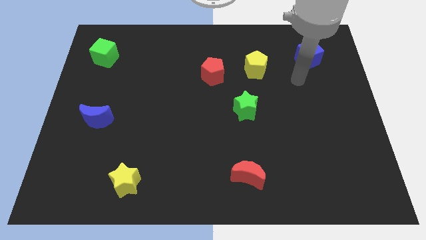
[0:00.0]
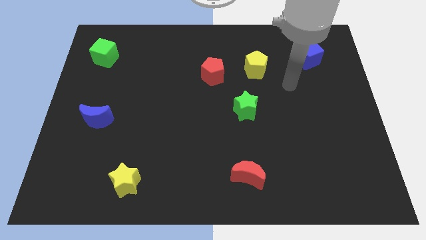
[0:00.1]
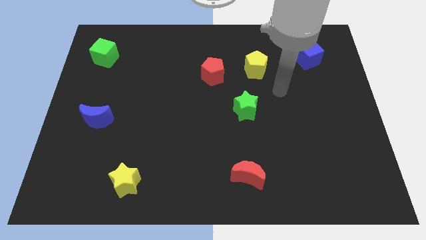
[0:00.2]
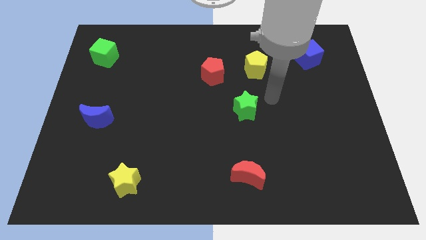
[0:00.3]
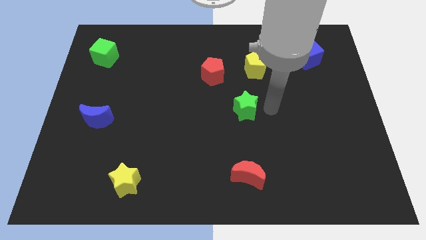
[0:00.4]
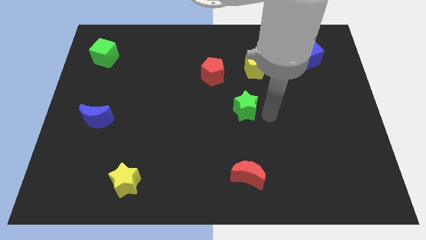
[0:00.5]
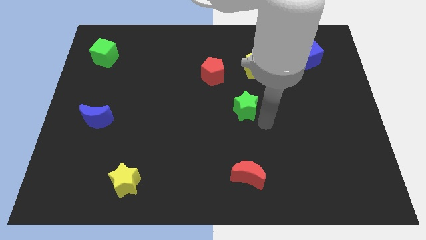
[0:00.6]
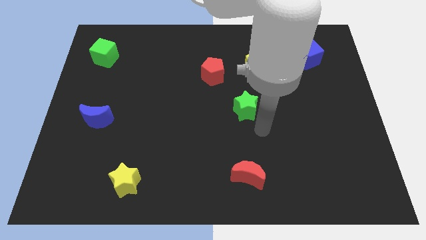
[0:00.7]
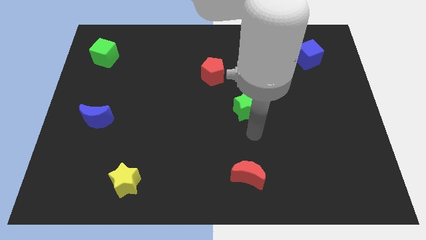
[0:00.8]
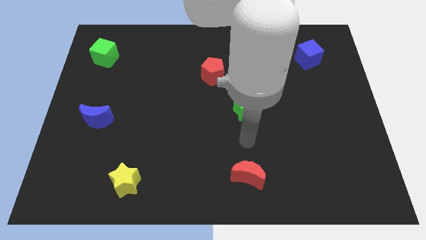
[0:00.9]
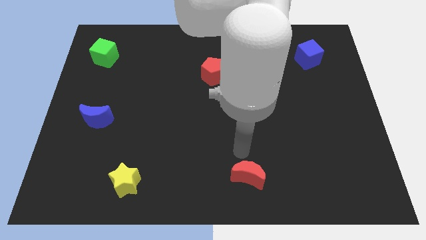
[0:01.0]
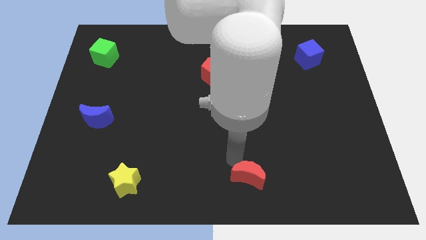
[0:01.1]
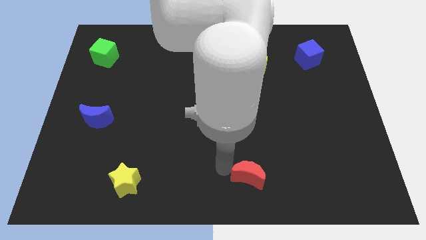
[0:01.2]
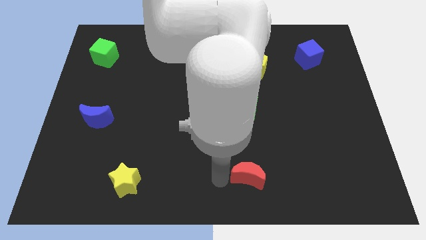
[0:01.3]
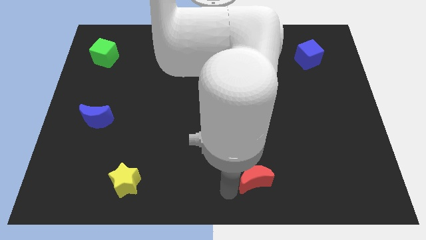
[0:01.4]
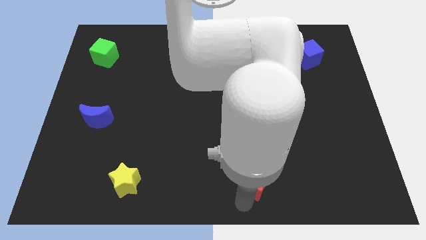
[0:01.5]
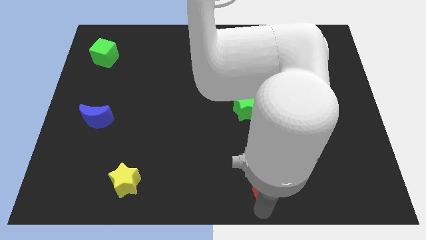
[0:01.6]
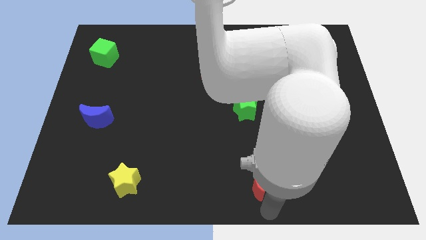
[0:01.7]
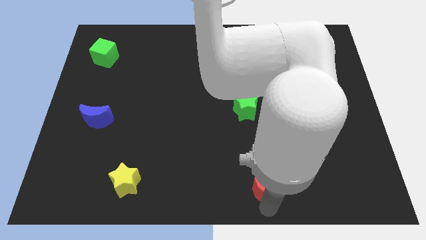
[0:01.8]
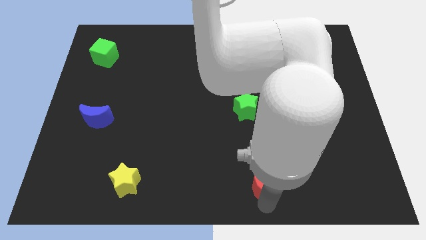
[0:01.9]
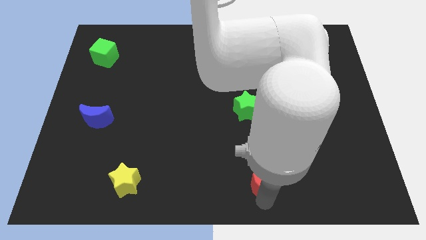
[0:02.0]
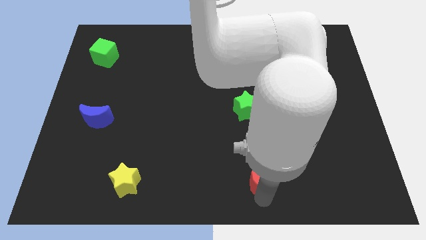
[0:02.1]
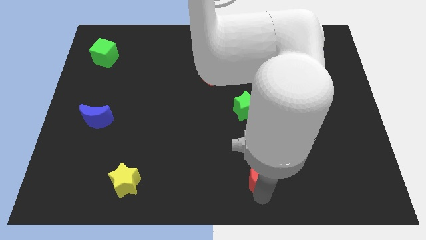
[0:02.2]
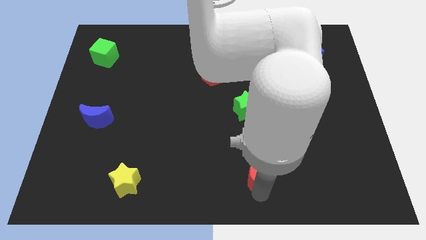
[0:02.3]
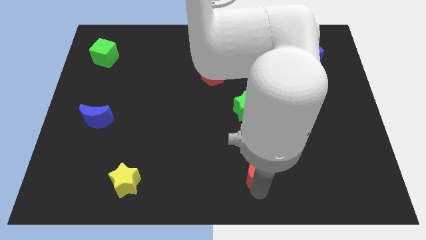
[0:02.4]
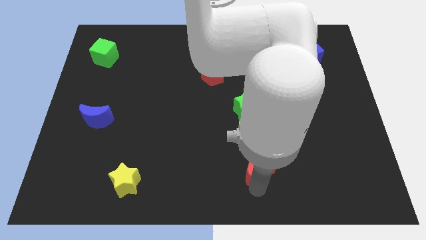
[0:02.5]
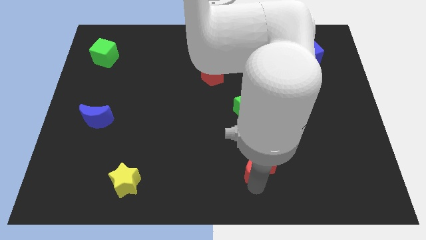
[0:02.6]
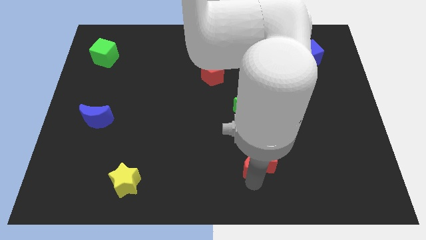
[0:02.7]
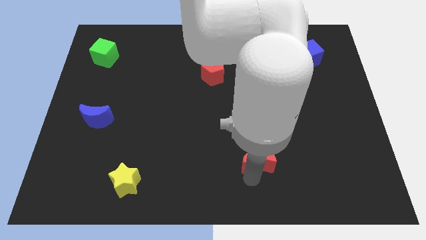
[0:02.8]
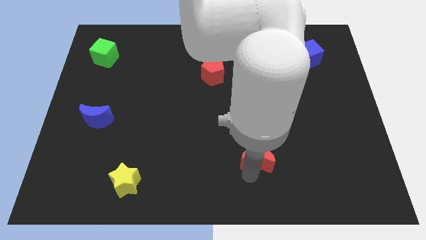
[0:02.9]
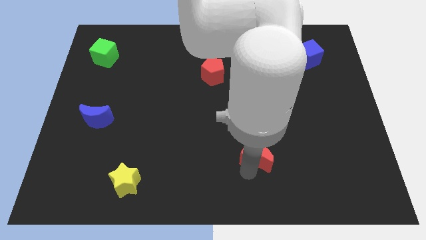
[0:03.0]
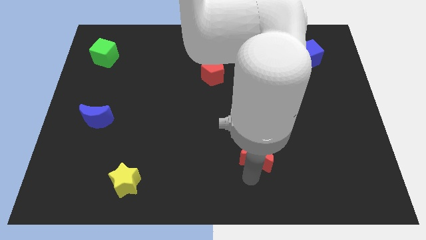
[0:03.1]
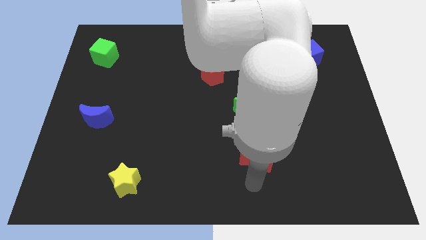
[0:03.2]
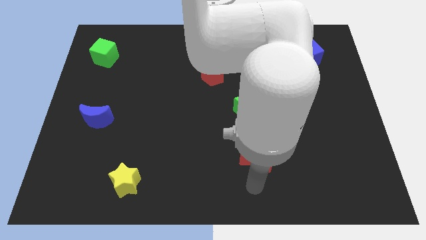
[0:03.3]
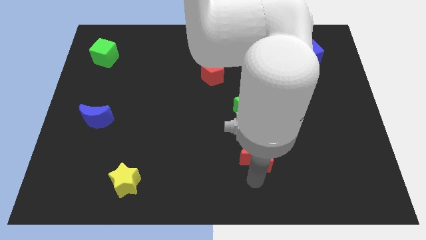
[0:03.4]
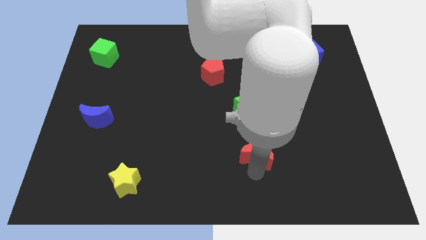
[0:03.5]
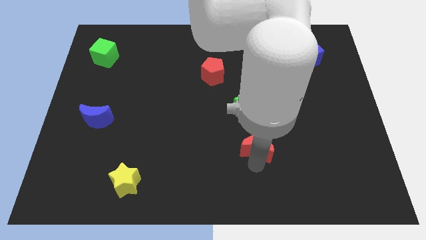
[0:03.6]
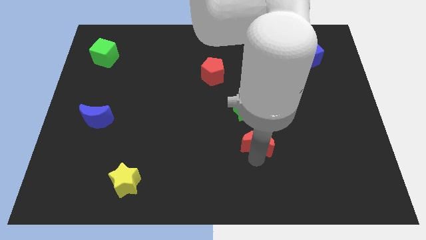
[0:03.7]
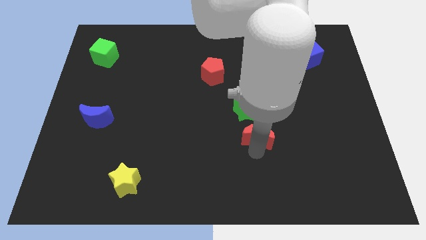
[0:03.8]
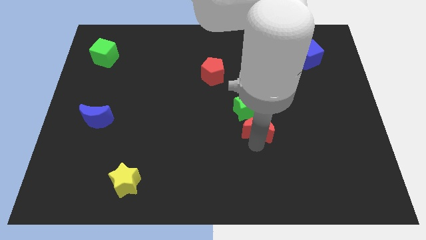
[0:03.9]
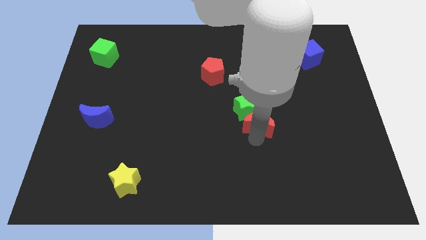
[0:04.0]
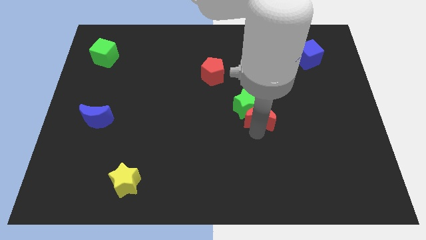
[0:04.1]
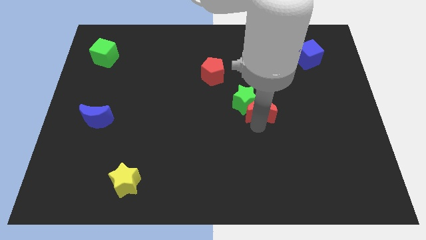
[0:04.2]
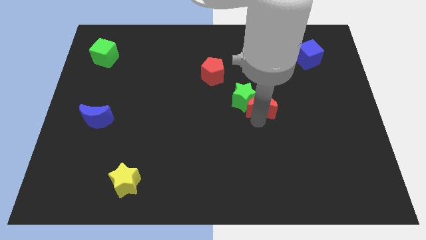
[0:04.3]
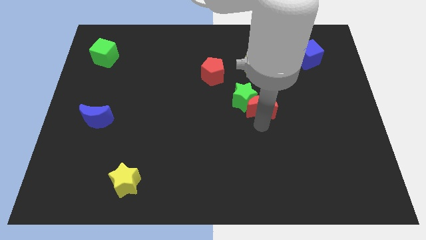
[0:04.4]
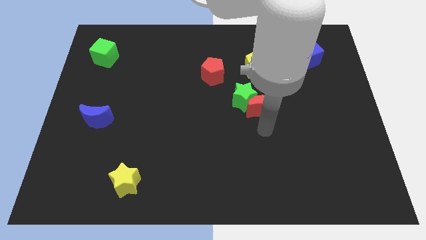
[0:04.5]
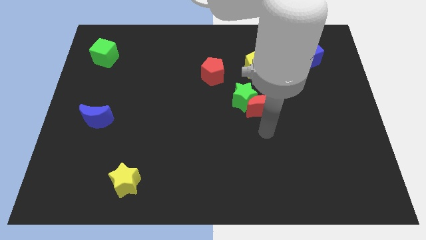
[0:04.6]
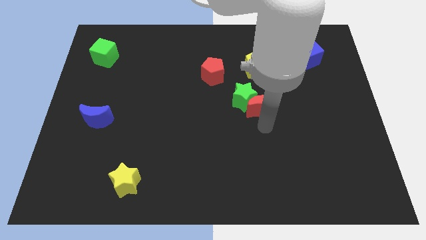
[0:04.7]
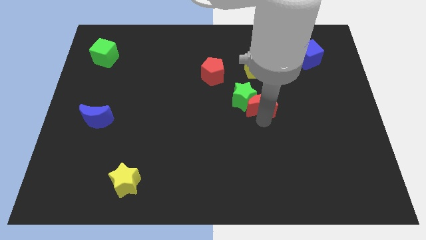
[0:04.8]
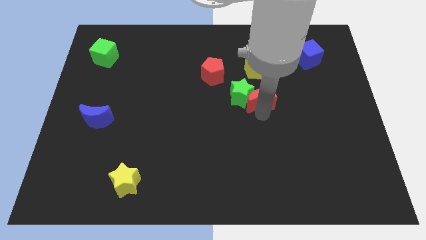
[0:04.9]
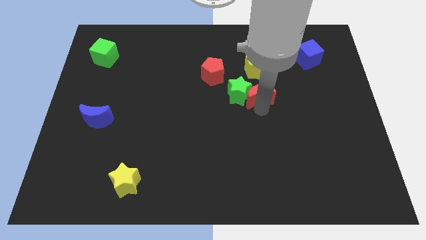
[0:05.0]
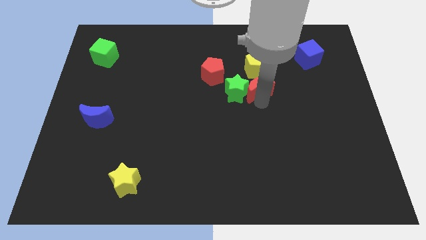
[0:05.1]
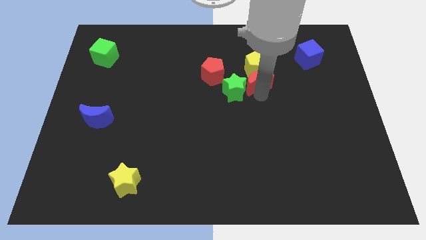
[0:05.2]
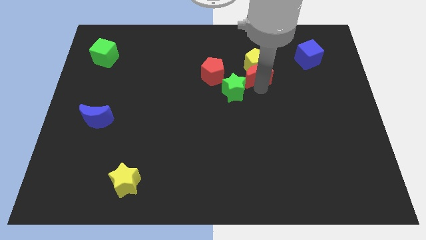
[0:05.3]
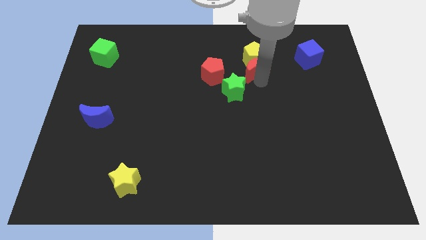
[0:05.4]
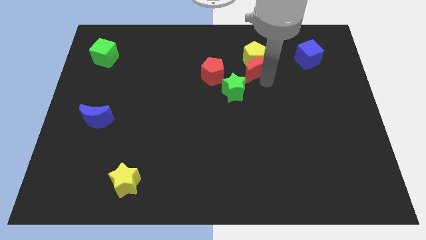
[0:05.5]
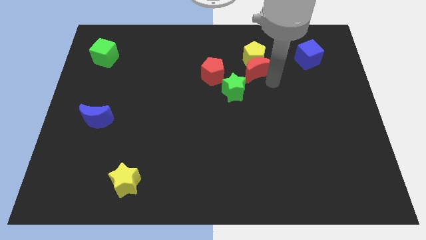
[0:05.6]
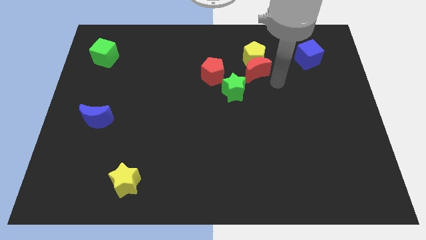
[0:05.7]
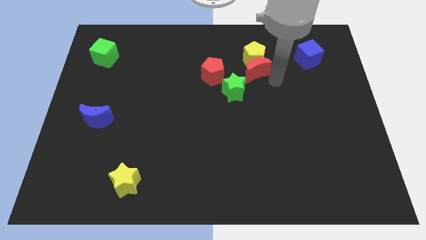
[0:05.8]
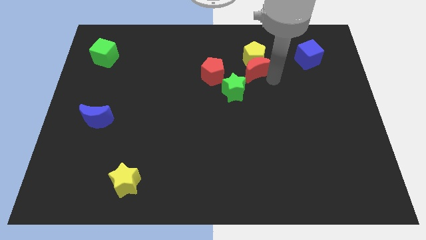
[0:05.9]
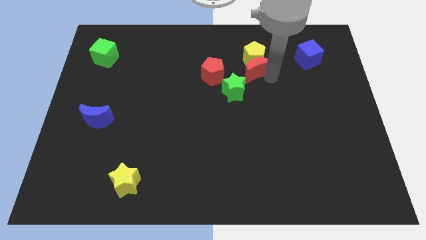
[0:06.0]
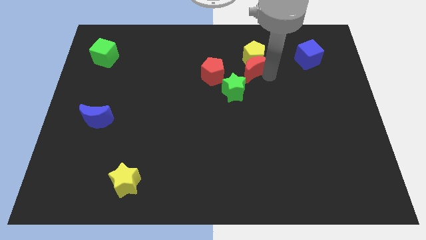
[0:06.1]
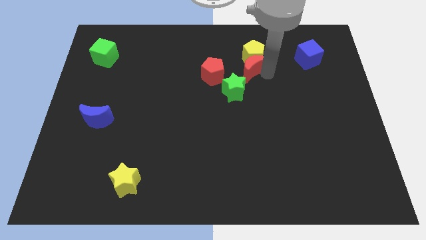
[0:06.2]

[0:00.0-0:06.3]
put the red moon to the top of the green star

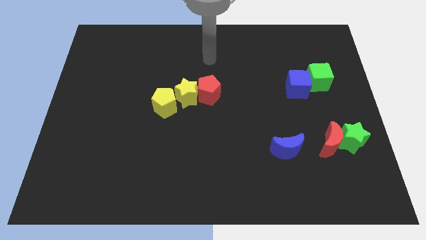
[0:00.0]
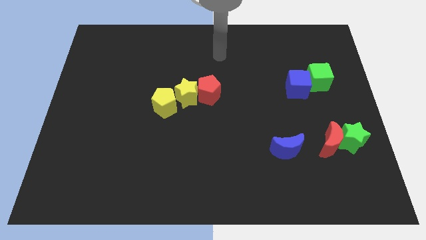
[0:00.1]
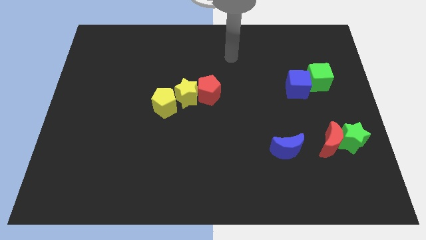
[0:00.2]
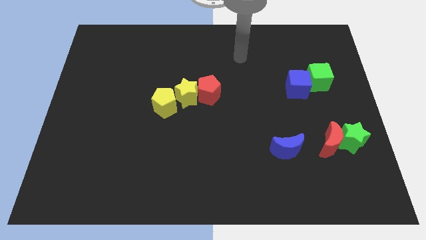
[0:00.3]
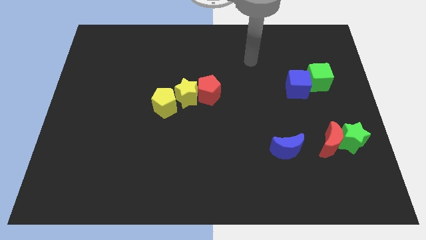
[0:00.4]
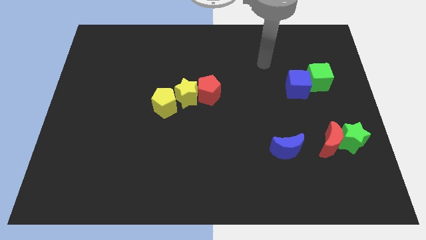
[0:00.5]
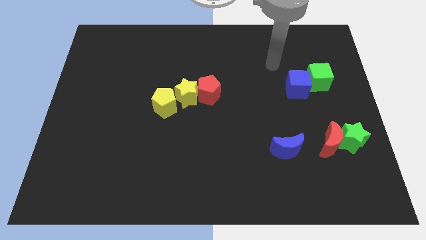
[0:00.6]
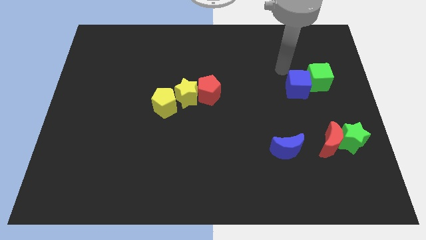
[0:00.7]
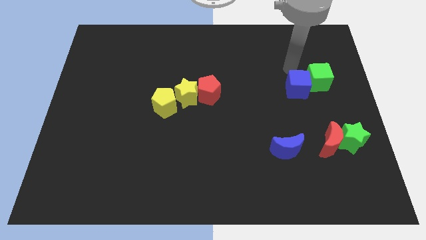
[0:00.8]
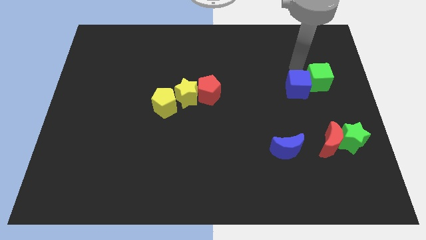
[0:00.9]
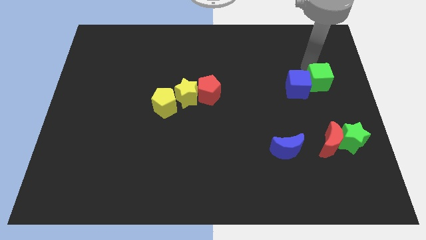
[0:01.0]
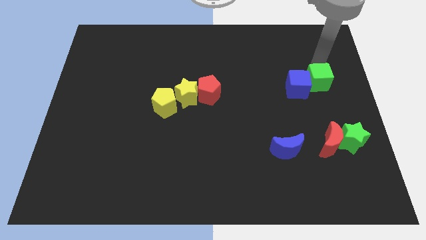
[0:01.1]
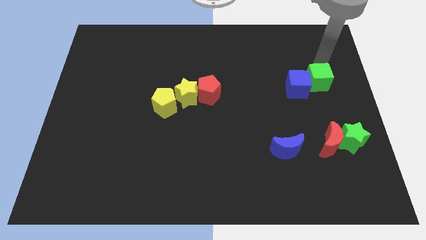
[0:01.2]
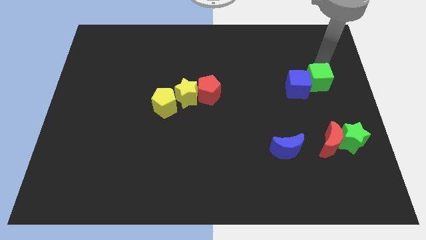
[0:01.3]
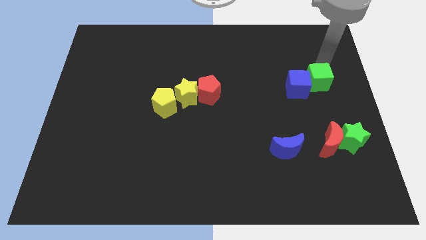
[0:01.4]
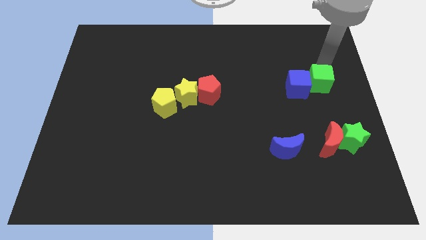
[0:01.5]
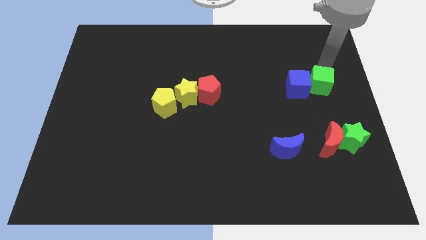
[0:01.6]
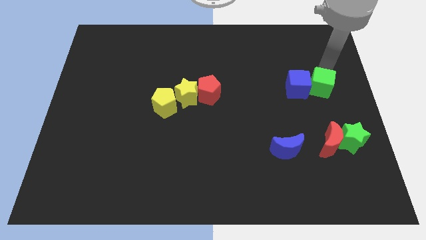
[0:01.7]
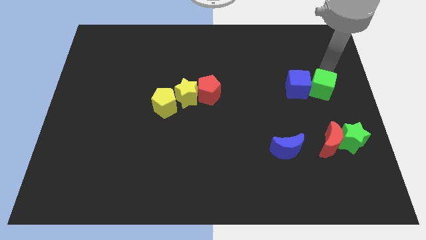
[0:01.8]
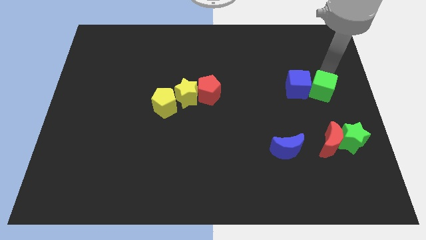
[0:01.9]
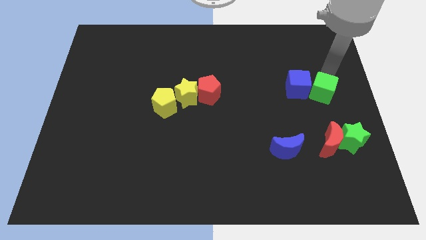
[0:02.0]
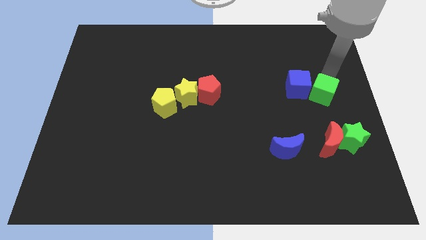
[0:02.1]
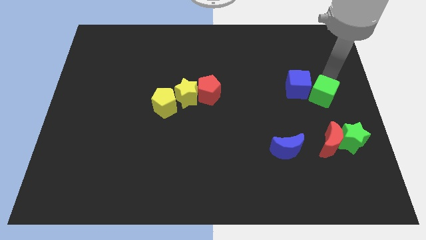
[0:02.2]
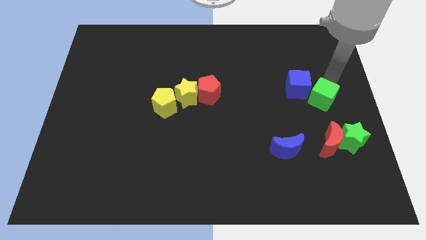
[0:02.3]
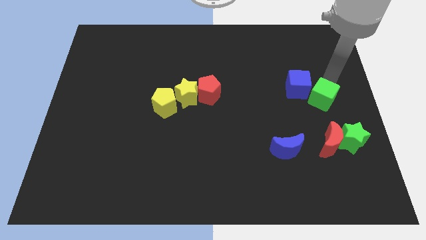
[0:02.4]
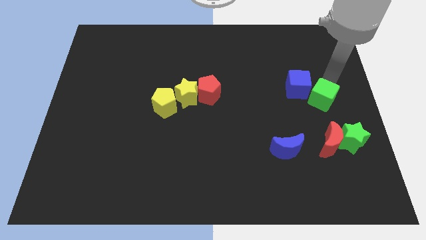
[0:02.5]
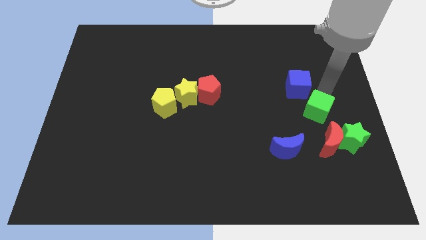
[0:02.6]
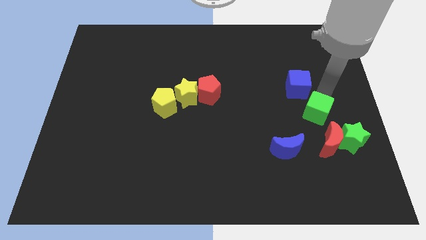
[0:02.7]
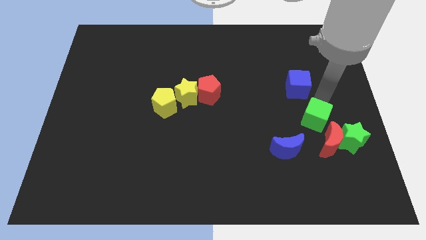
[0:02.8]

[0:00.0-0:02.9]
slide the green cube to the top right of the blue moon
